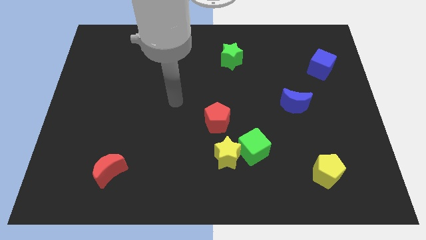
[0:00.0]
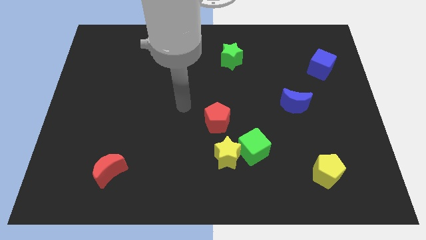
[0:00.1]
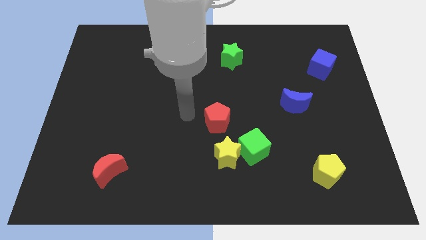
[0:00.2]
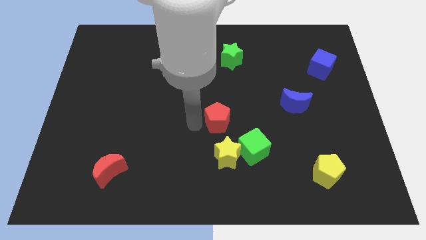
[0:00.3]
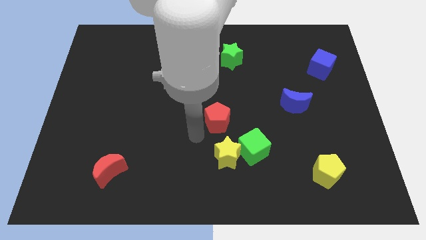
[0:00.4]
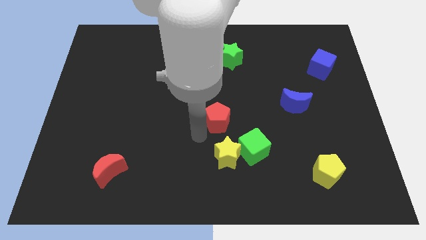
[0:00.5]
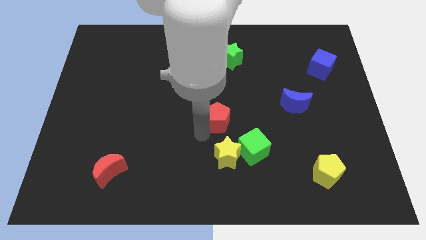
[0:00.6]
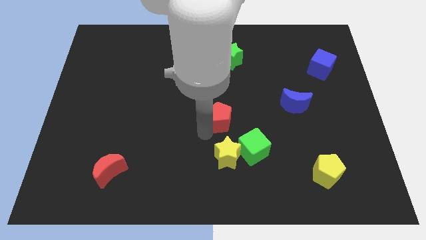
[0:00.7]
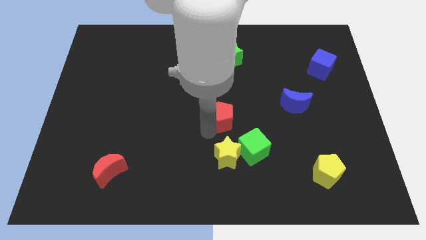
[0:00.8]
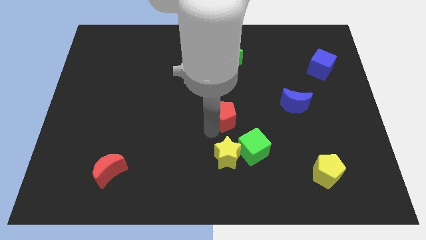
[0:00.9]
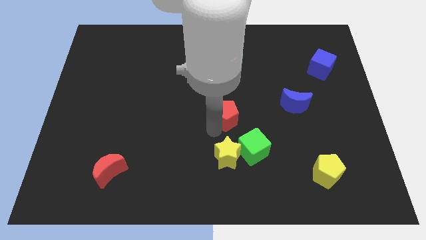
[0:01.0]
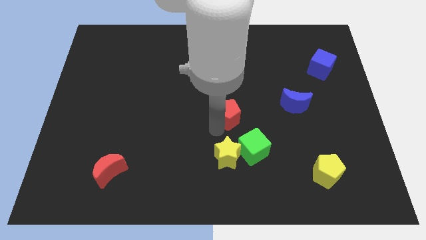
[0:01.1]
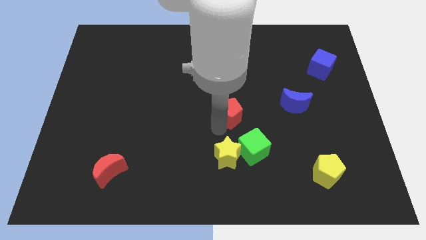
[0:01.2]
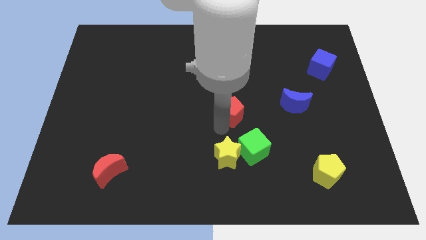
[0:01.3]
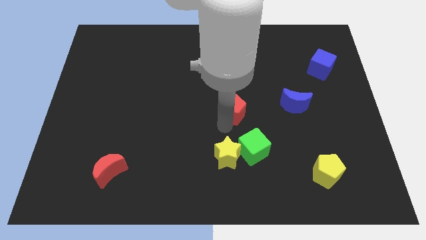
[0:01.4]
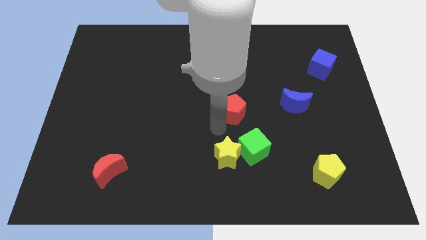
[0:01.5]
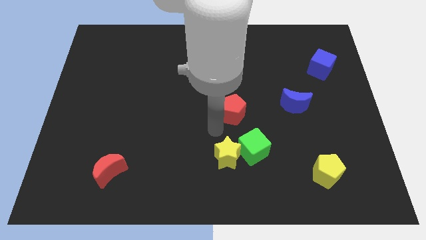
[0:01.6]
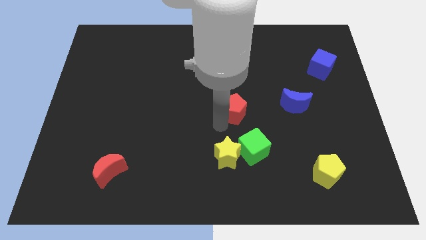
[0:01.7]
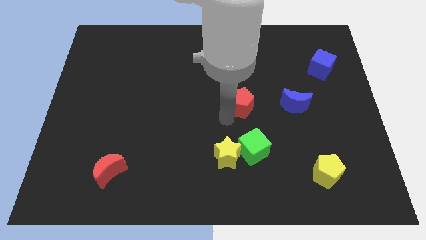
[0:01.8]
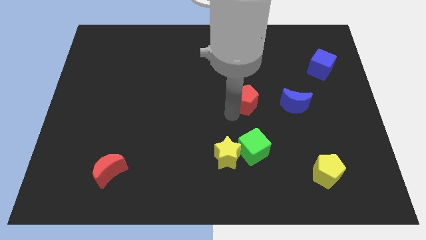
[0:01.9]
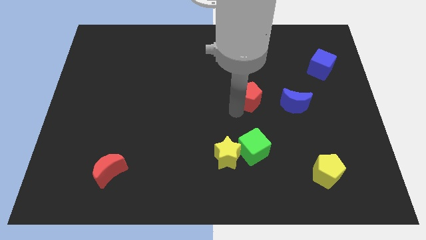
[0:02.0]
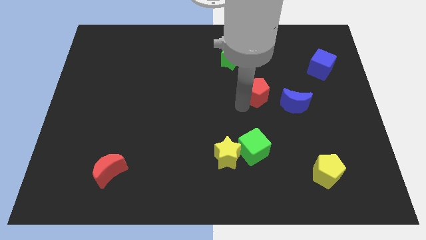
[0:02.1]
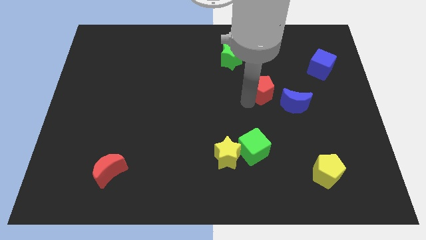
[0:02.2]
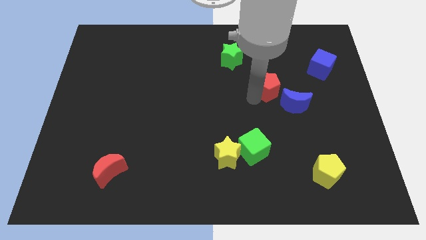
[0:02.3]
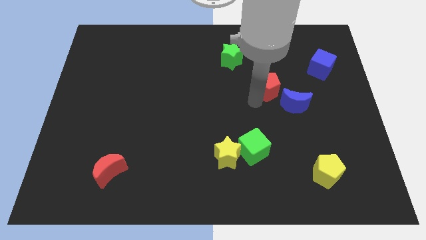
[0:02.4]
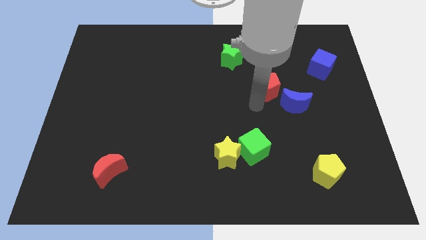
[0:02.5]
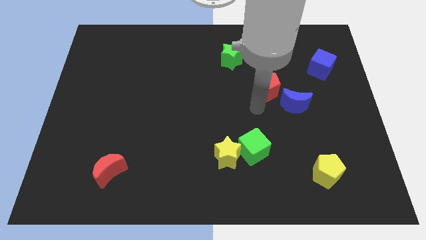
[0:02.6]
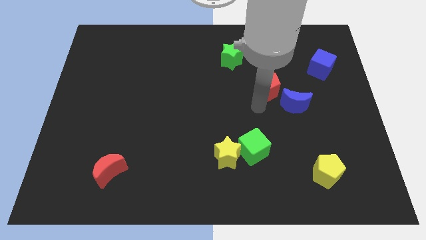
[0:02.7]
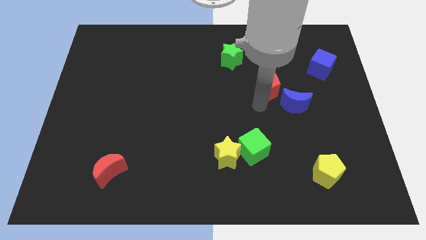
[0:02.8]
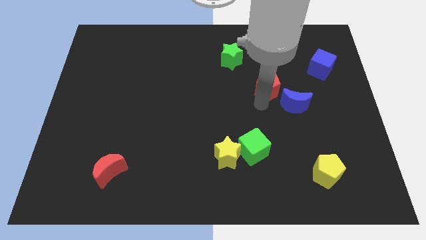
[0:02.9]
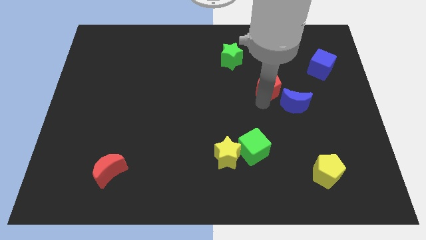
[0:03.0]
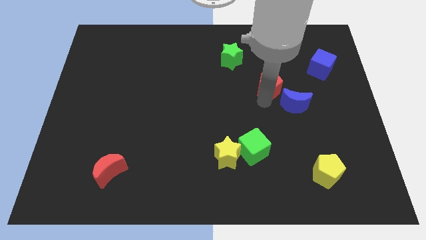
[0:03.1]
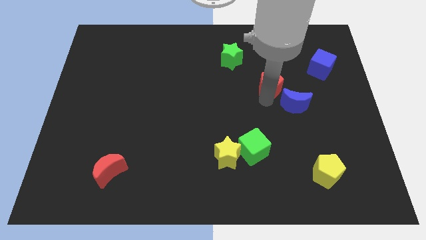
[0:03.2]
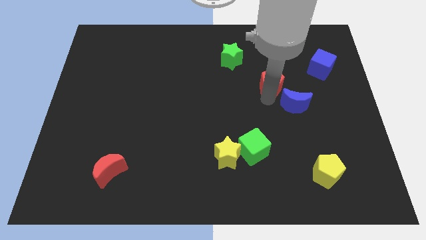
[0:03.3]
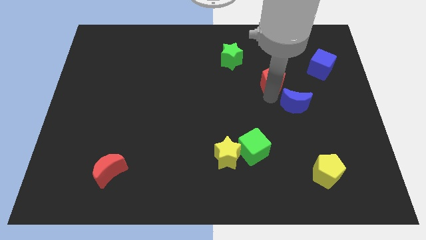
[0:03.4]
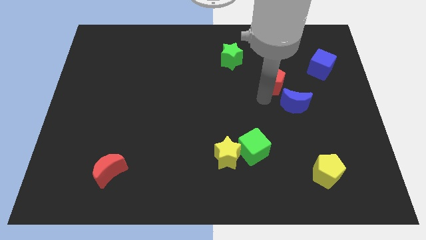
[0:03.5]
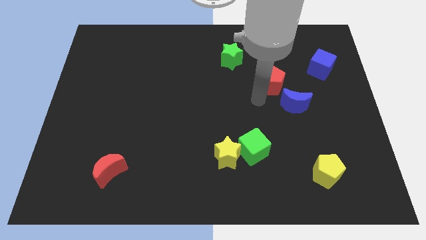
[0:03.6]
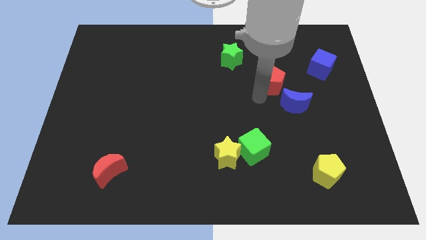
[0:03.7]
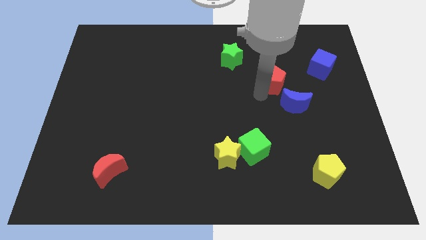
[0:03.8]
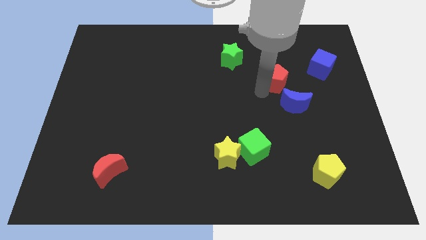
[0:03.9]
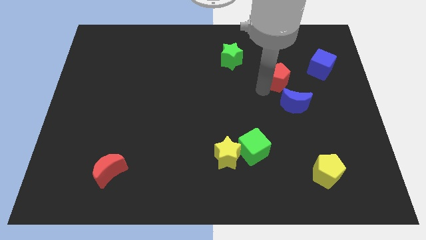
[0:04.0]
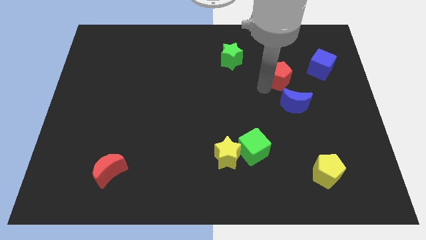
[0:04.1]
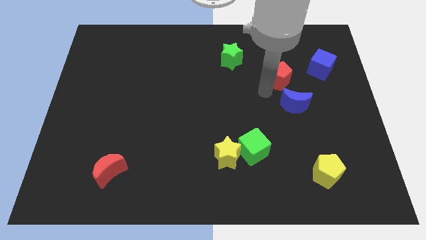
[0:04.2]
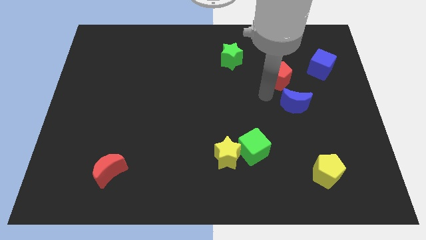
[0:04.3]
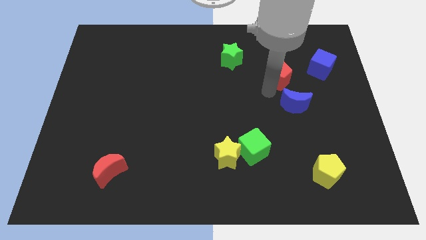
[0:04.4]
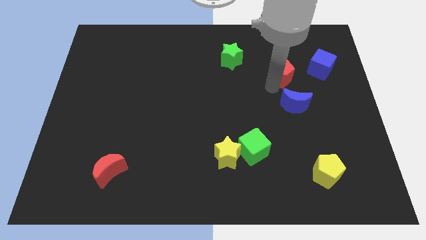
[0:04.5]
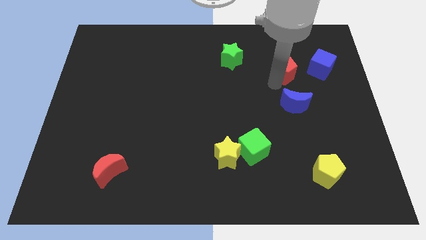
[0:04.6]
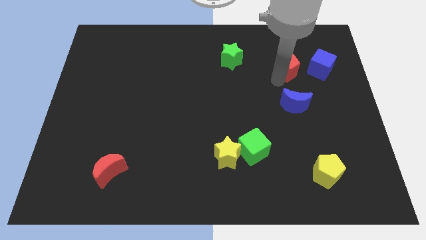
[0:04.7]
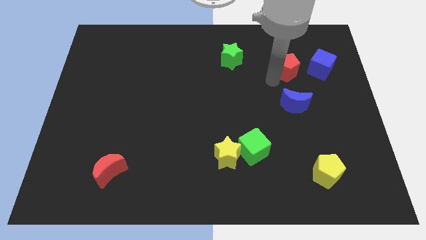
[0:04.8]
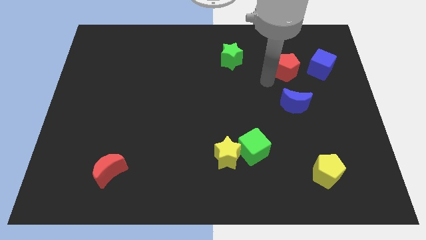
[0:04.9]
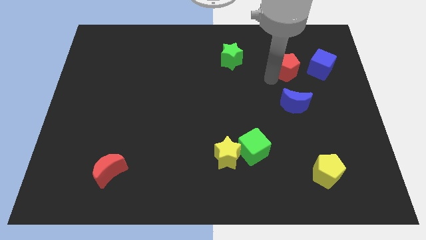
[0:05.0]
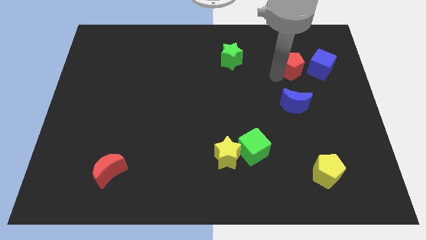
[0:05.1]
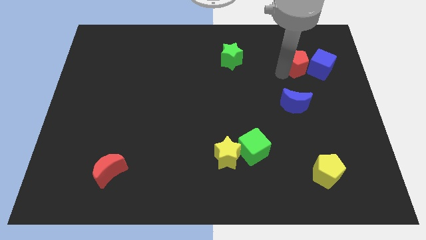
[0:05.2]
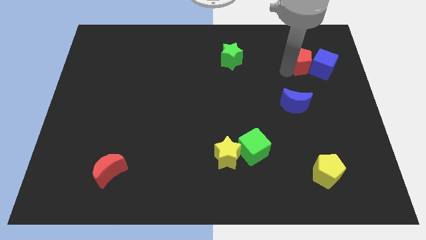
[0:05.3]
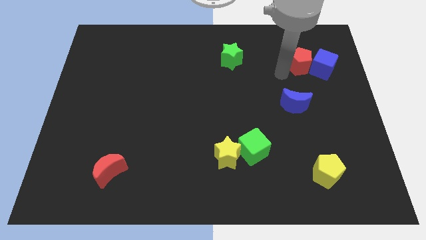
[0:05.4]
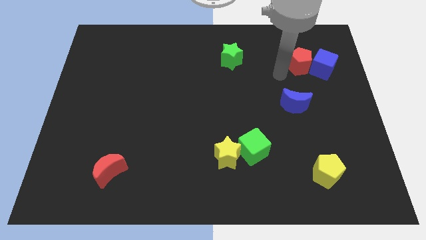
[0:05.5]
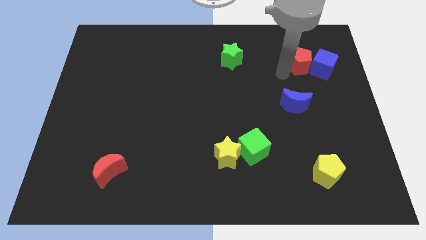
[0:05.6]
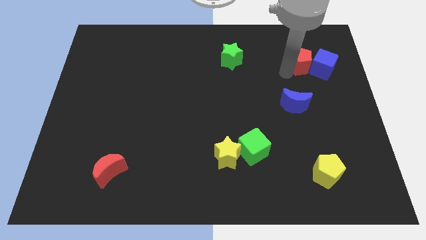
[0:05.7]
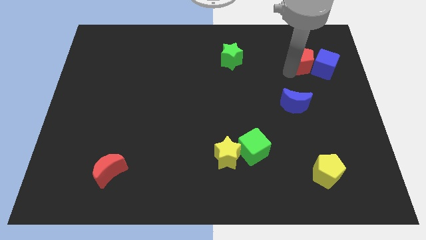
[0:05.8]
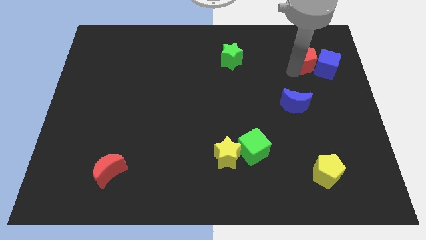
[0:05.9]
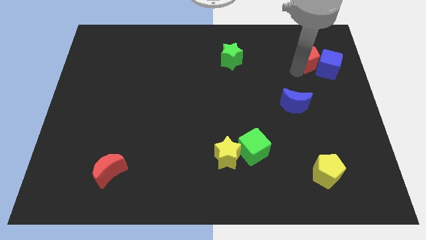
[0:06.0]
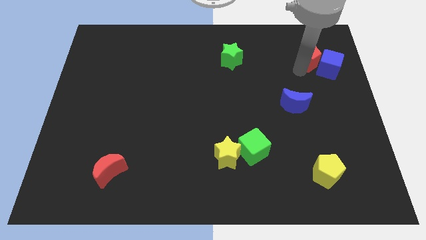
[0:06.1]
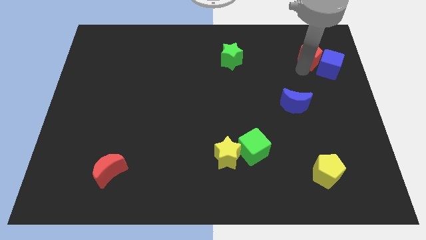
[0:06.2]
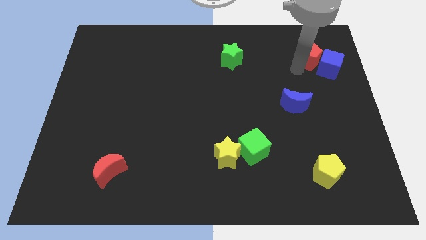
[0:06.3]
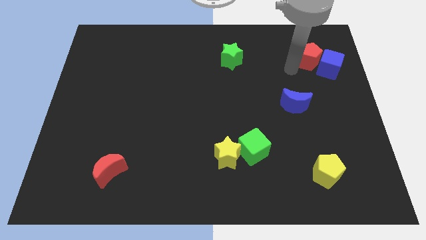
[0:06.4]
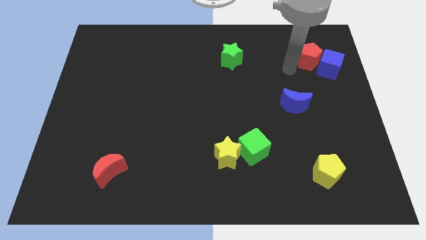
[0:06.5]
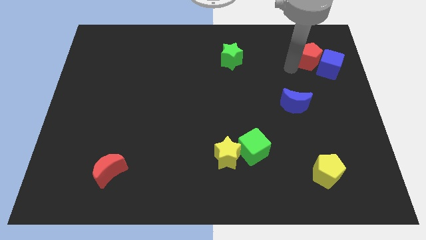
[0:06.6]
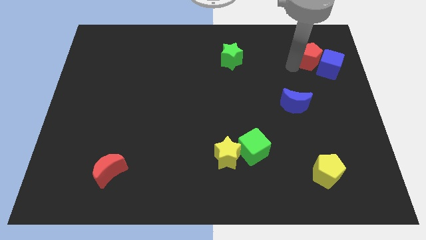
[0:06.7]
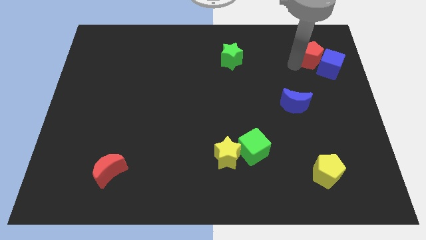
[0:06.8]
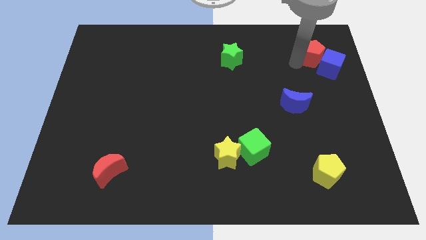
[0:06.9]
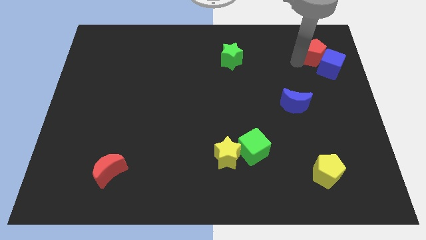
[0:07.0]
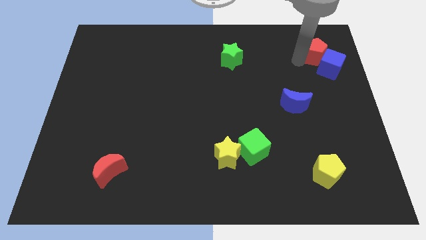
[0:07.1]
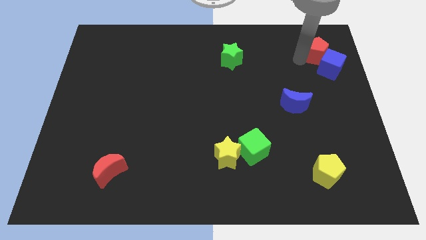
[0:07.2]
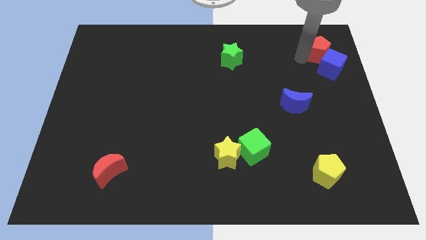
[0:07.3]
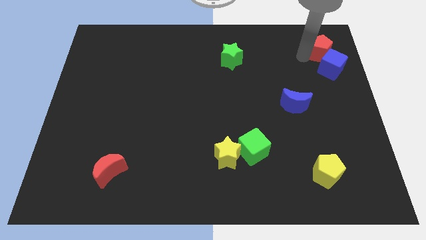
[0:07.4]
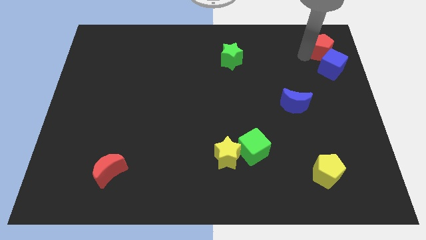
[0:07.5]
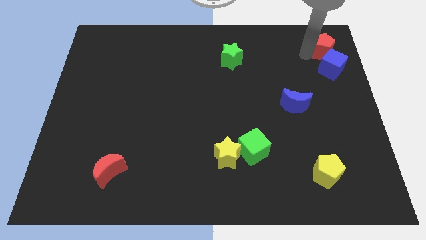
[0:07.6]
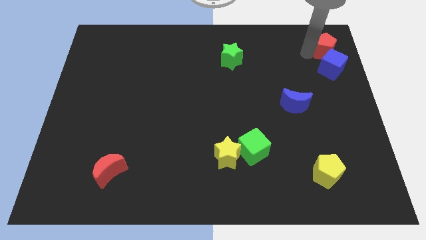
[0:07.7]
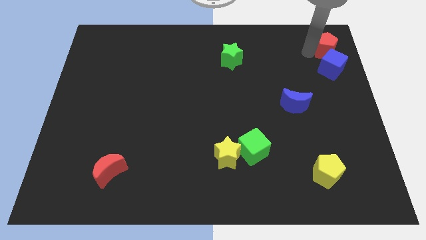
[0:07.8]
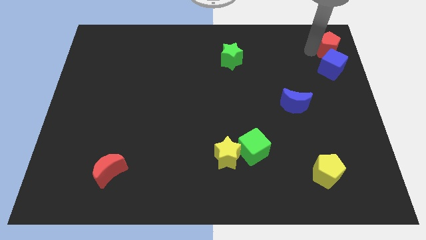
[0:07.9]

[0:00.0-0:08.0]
slide the red pentagon to the top right of the board
